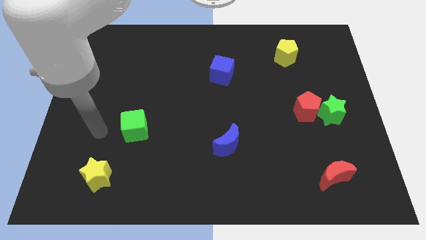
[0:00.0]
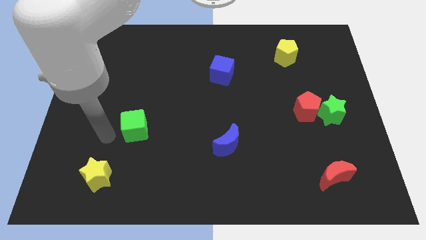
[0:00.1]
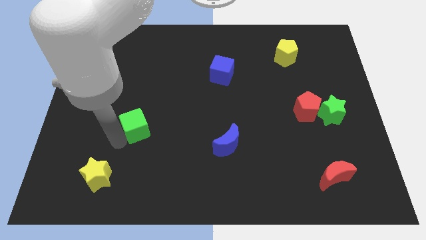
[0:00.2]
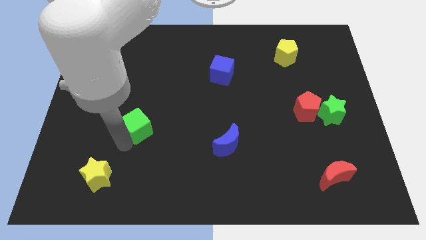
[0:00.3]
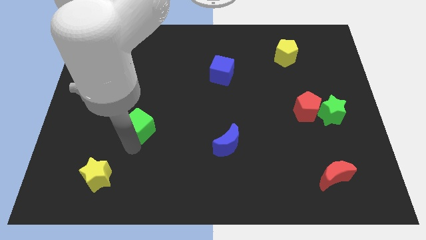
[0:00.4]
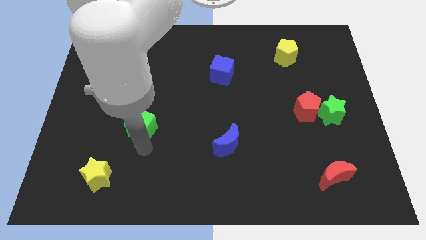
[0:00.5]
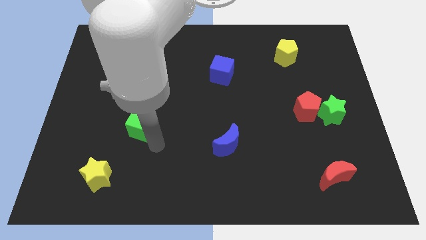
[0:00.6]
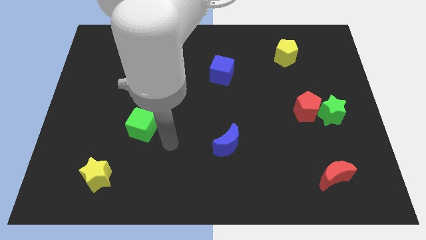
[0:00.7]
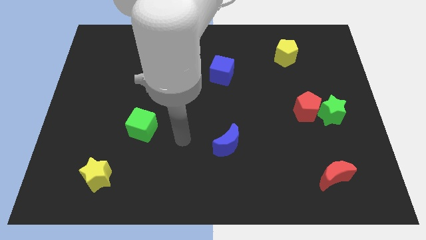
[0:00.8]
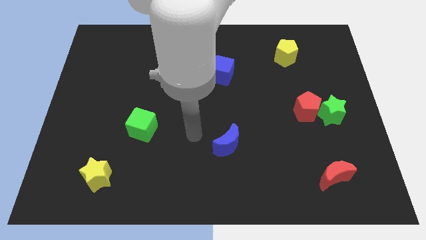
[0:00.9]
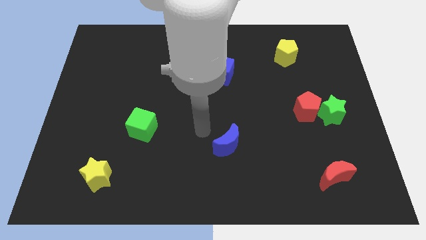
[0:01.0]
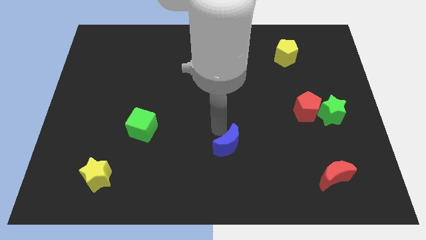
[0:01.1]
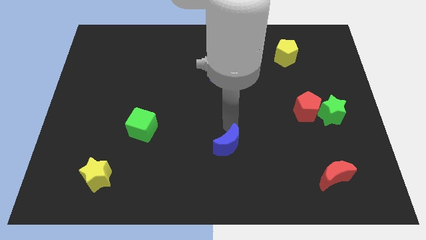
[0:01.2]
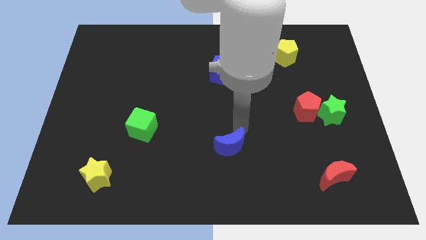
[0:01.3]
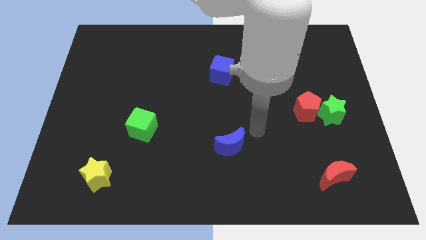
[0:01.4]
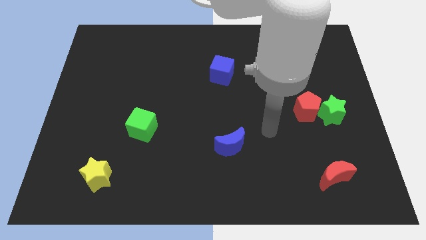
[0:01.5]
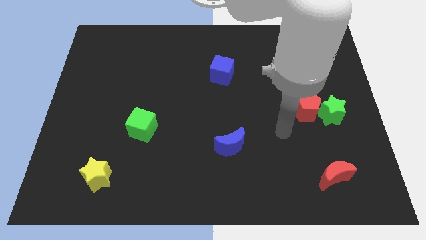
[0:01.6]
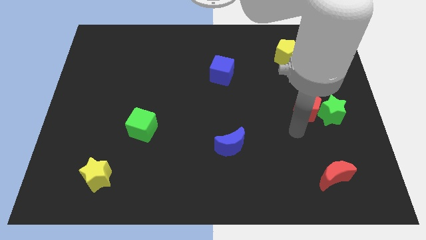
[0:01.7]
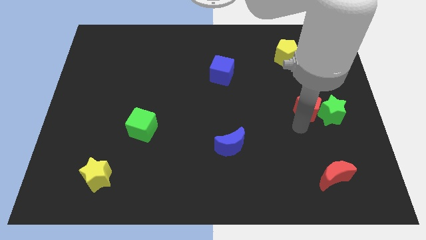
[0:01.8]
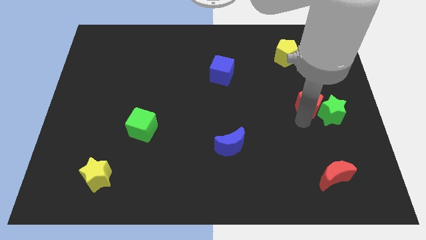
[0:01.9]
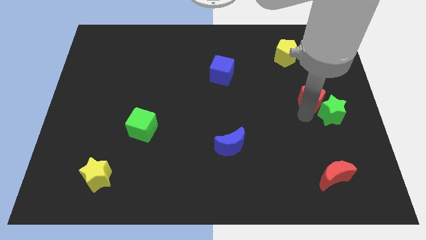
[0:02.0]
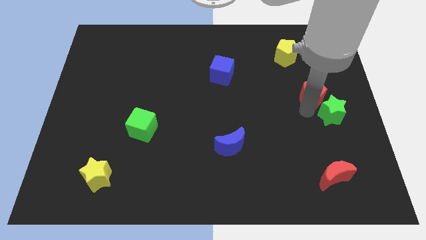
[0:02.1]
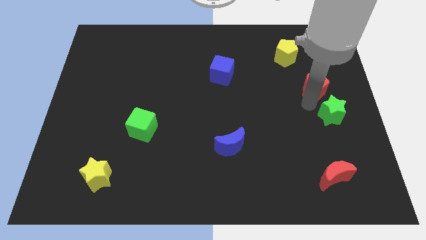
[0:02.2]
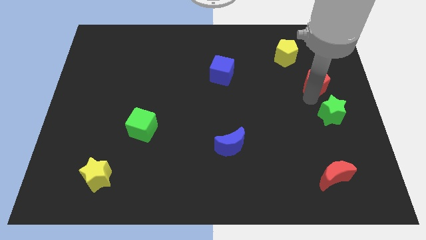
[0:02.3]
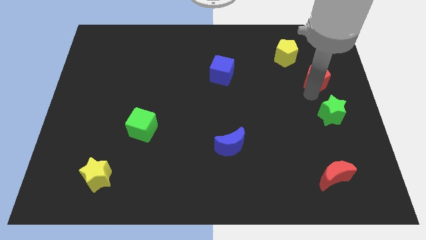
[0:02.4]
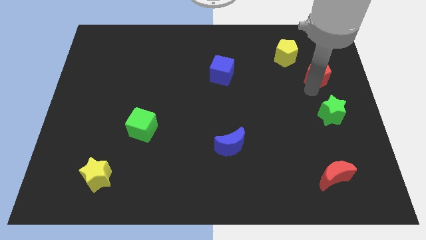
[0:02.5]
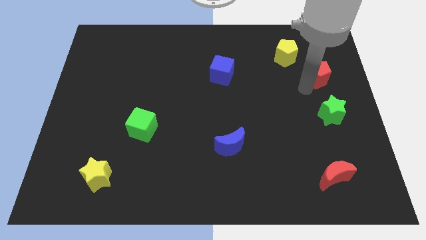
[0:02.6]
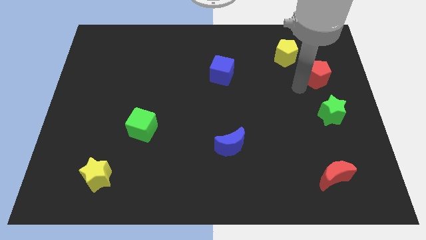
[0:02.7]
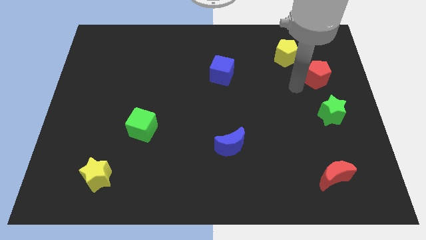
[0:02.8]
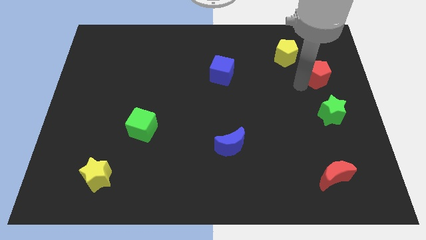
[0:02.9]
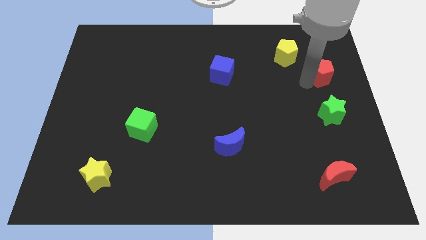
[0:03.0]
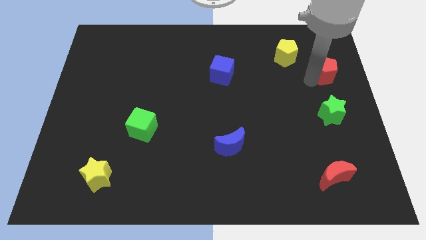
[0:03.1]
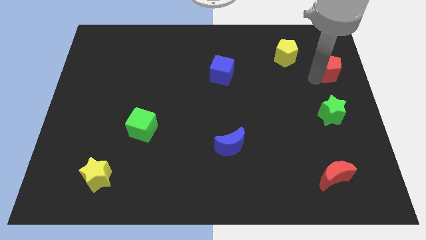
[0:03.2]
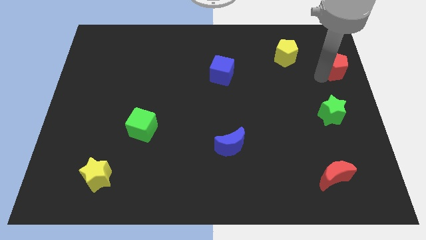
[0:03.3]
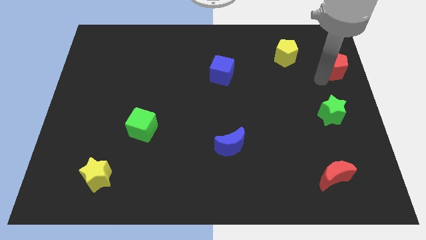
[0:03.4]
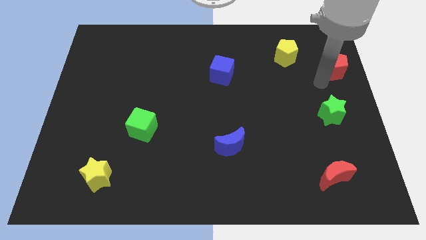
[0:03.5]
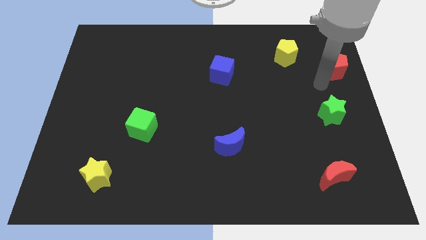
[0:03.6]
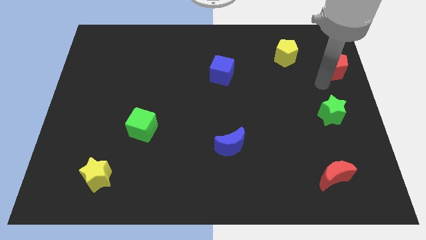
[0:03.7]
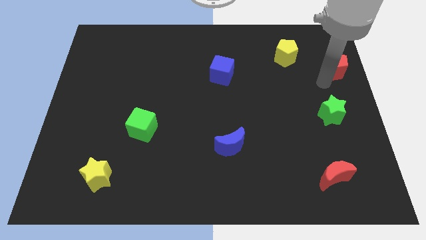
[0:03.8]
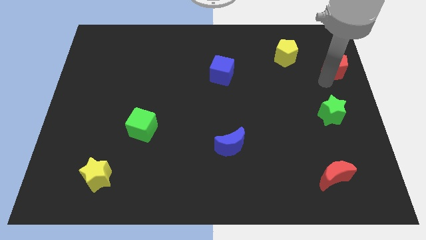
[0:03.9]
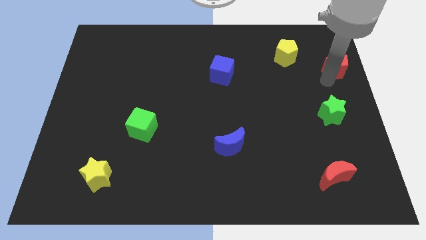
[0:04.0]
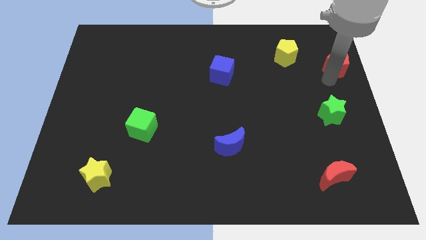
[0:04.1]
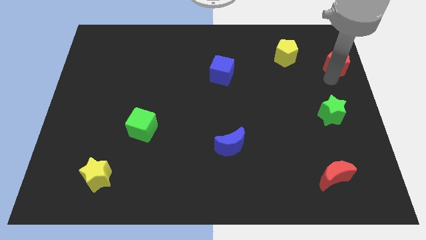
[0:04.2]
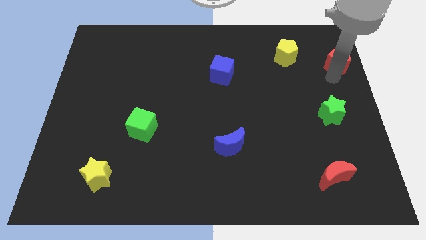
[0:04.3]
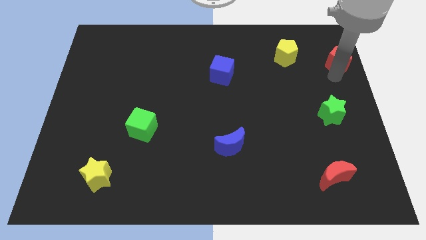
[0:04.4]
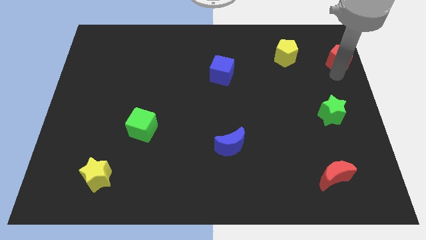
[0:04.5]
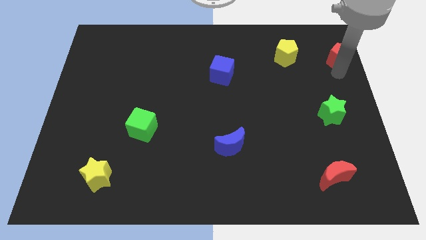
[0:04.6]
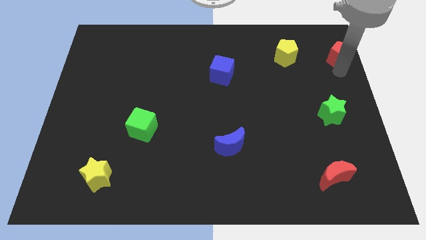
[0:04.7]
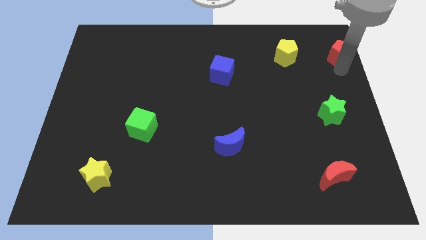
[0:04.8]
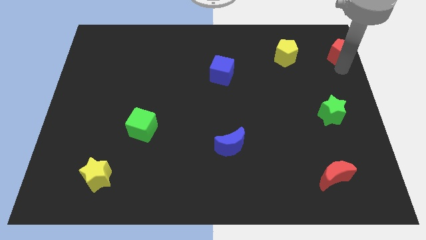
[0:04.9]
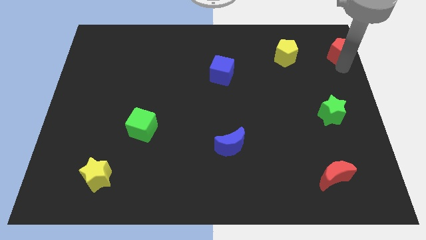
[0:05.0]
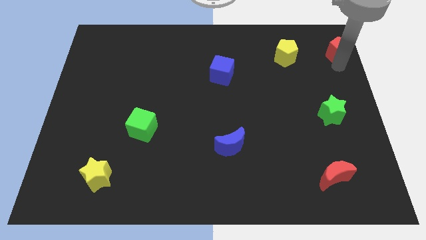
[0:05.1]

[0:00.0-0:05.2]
move the red pentagon to the top right corner
